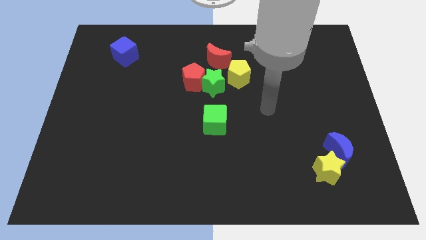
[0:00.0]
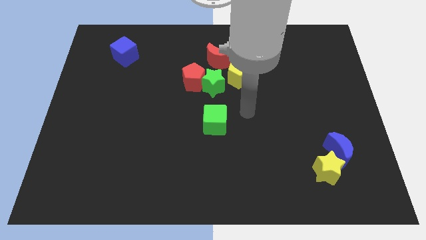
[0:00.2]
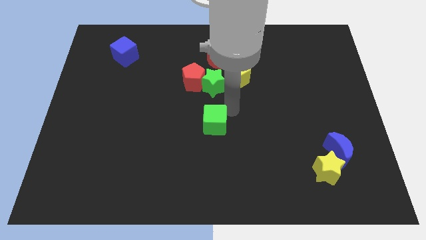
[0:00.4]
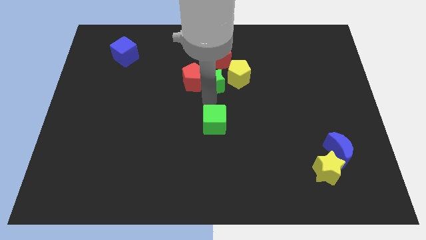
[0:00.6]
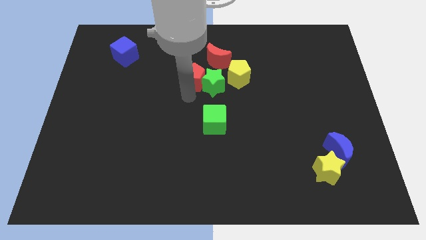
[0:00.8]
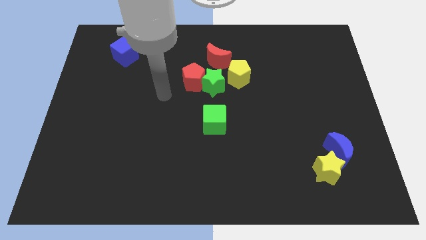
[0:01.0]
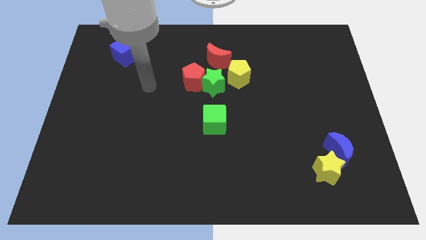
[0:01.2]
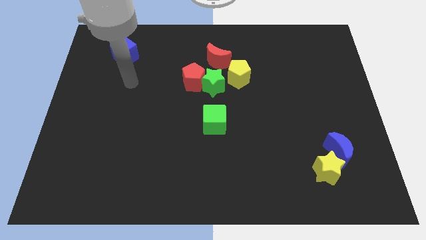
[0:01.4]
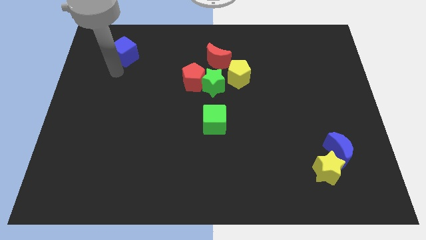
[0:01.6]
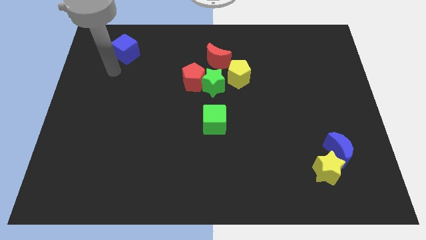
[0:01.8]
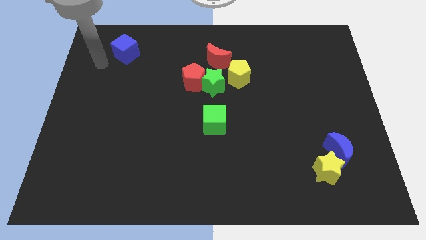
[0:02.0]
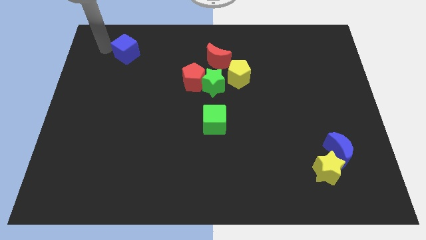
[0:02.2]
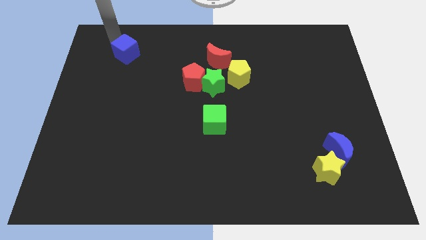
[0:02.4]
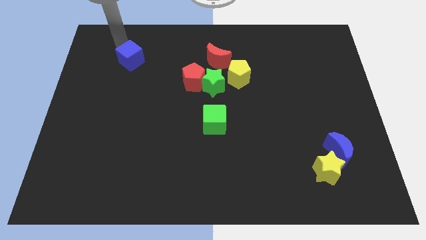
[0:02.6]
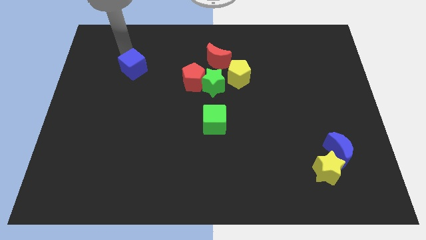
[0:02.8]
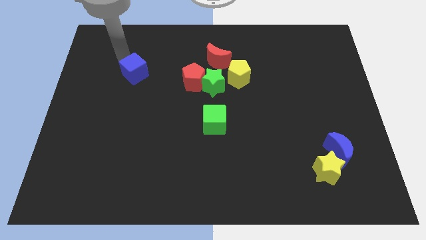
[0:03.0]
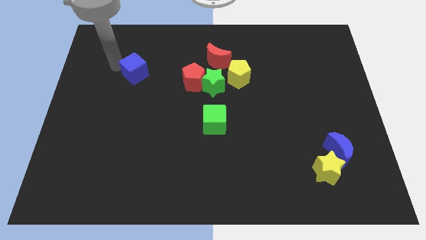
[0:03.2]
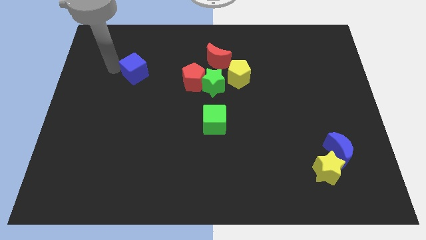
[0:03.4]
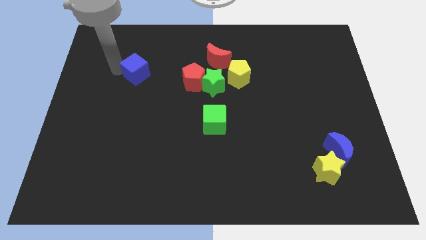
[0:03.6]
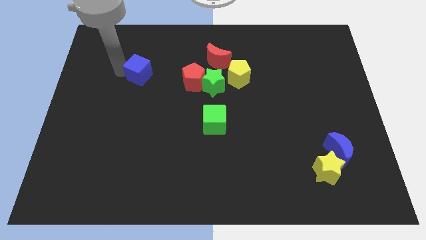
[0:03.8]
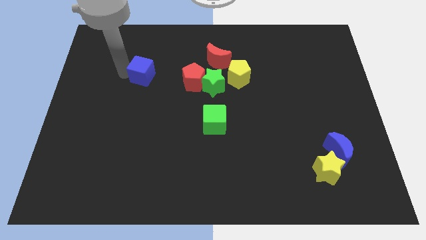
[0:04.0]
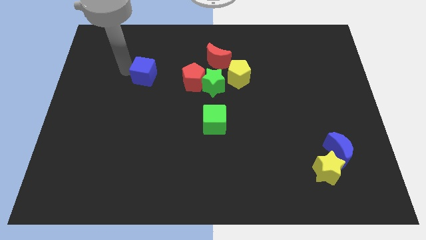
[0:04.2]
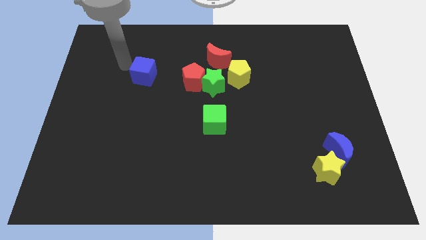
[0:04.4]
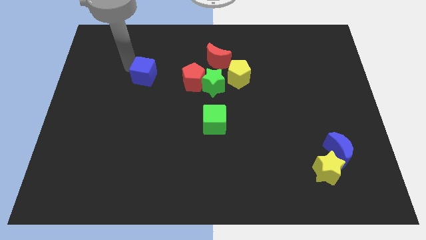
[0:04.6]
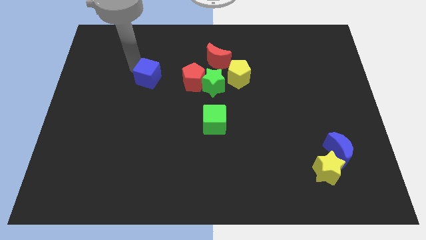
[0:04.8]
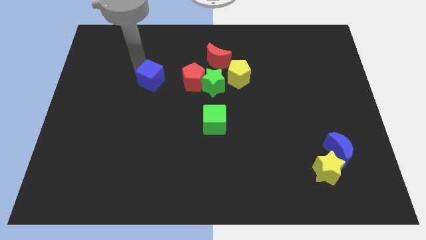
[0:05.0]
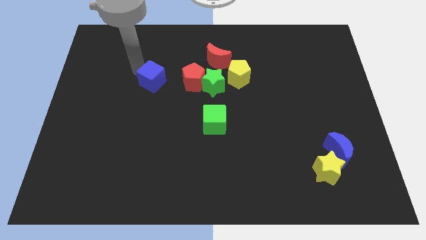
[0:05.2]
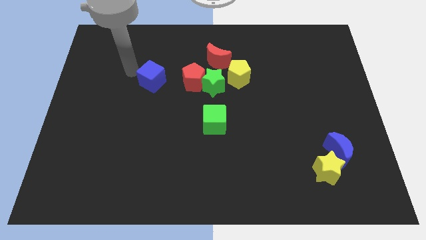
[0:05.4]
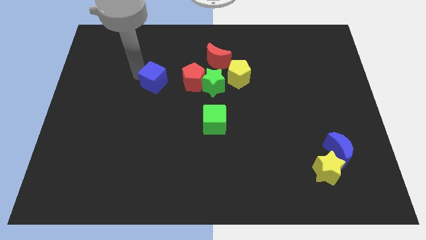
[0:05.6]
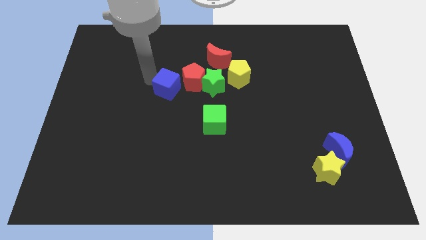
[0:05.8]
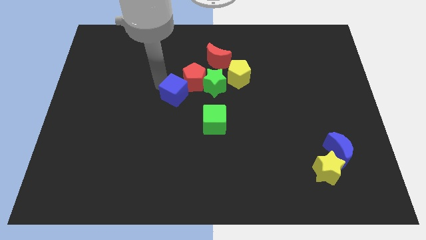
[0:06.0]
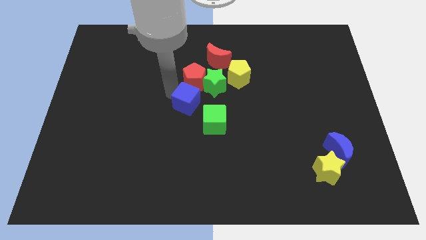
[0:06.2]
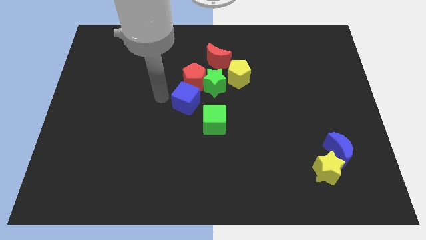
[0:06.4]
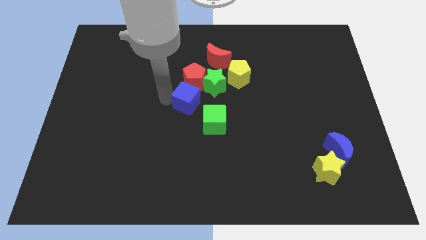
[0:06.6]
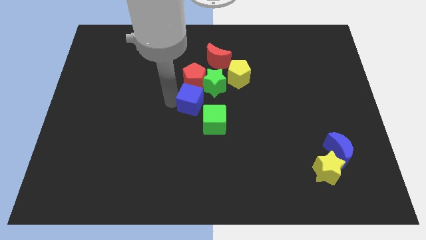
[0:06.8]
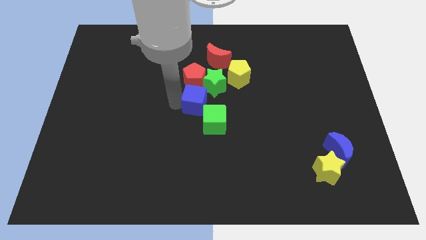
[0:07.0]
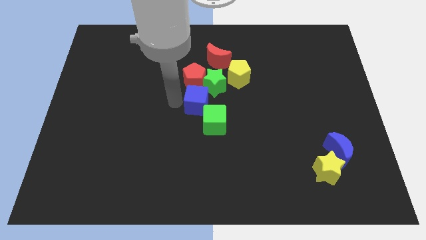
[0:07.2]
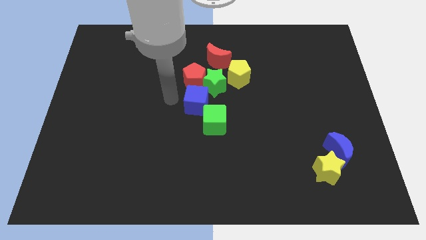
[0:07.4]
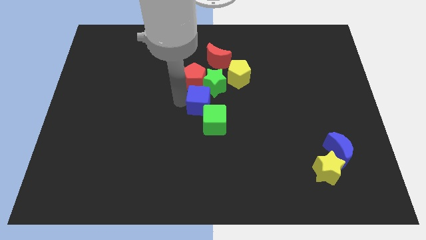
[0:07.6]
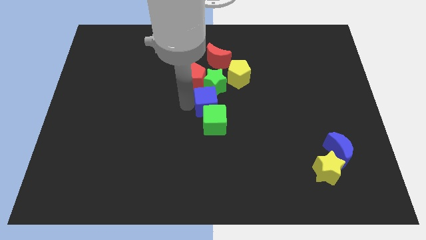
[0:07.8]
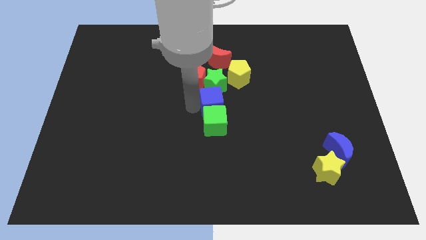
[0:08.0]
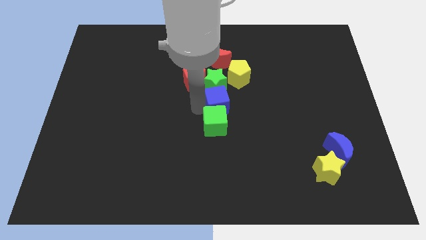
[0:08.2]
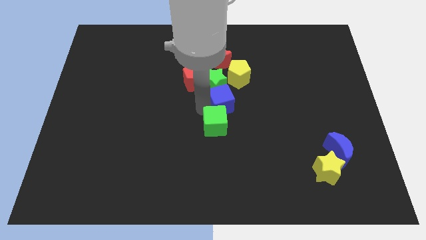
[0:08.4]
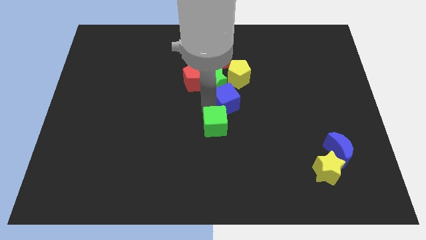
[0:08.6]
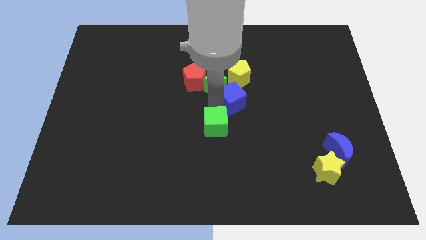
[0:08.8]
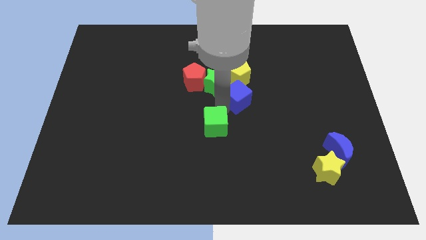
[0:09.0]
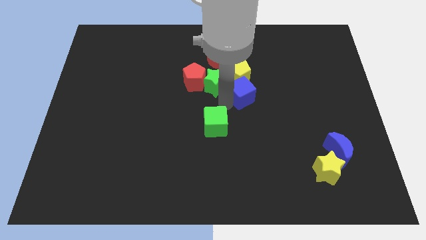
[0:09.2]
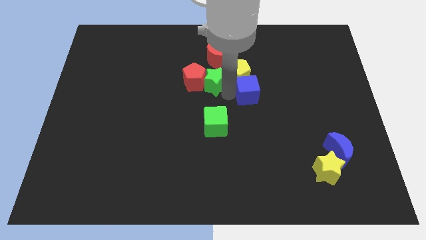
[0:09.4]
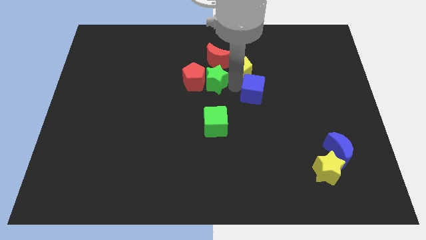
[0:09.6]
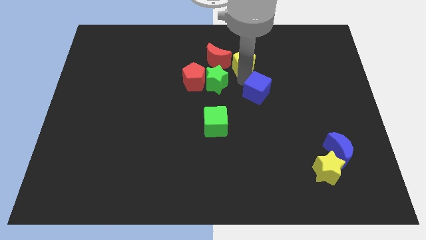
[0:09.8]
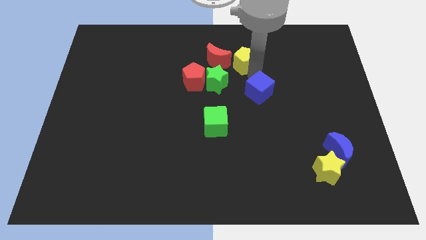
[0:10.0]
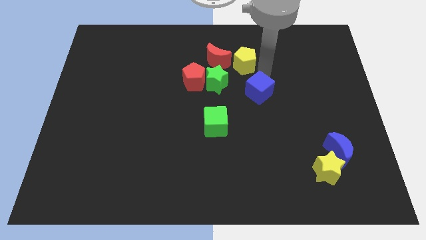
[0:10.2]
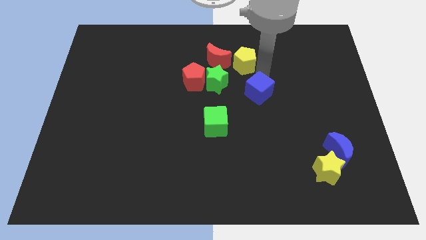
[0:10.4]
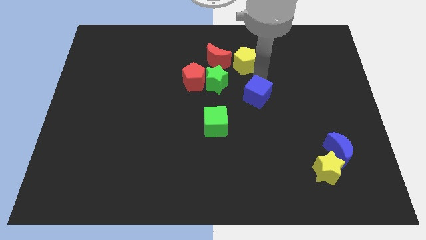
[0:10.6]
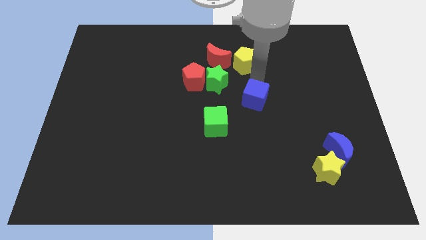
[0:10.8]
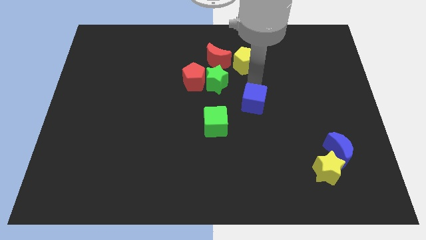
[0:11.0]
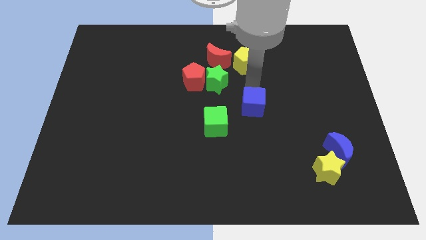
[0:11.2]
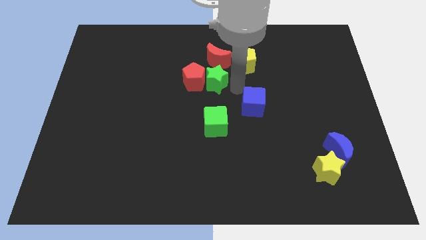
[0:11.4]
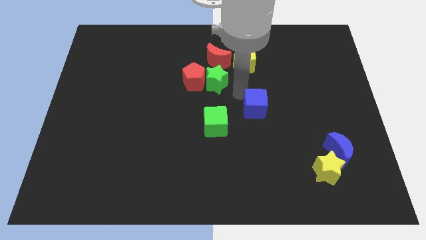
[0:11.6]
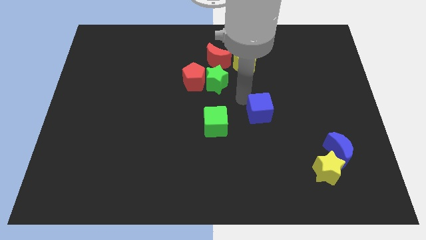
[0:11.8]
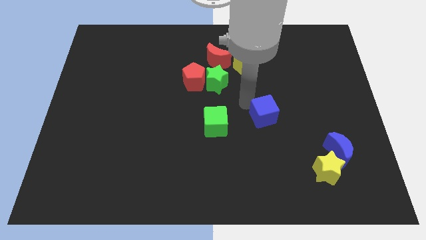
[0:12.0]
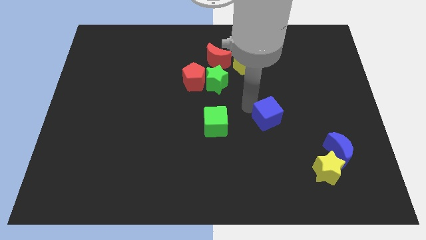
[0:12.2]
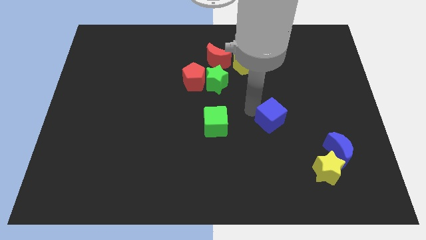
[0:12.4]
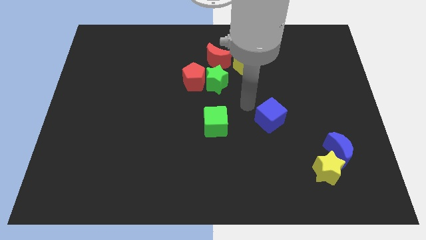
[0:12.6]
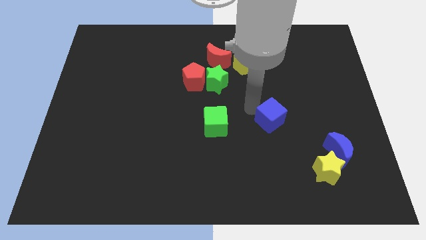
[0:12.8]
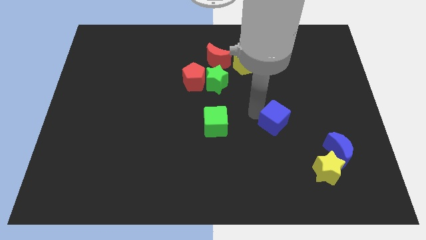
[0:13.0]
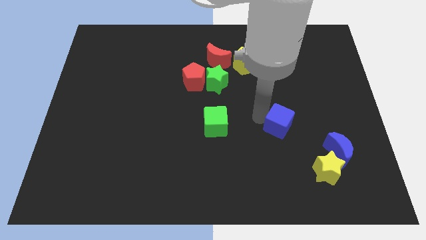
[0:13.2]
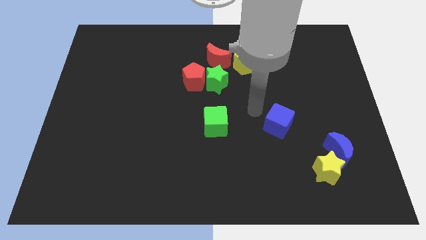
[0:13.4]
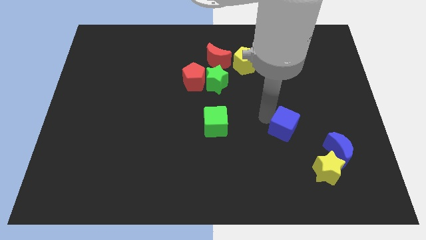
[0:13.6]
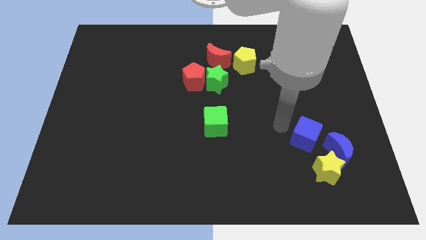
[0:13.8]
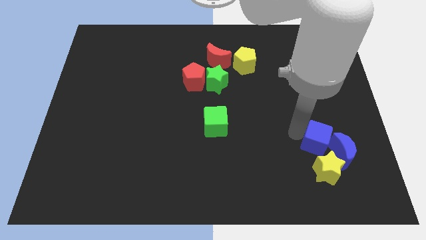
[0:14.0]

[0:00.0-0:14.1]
push the blue cube next to the blue moon
